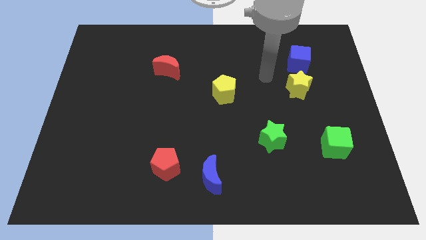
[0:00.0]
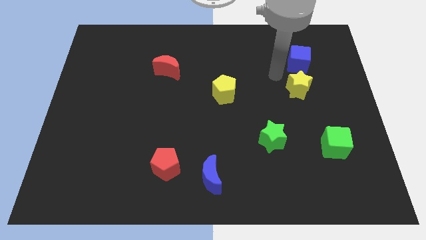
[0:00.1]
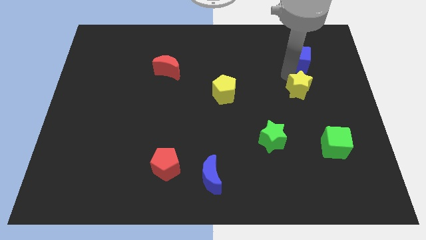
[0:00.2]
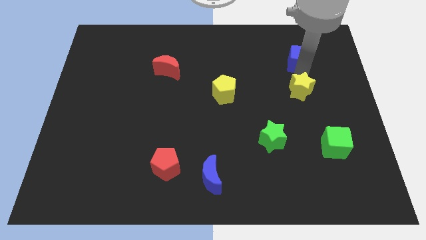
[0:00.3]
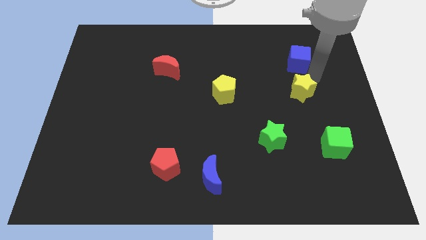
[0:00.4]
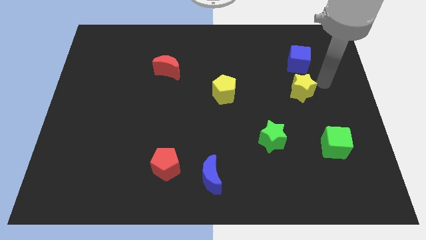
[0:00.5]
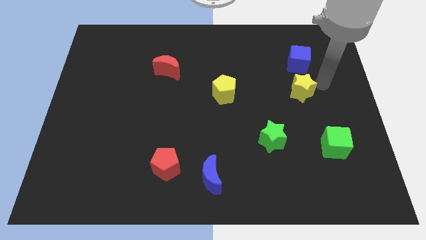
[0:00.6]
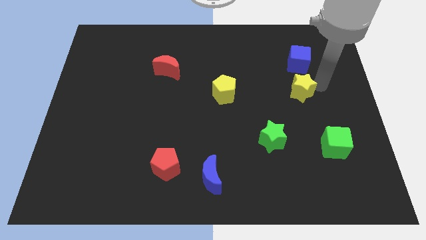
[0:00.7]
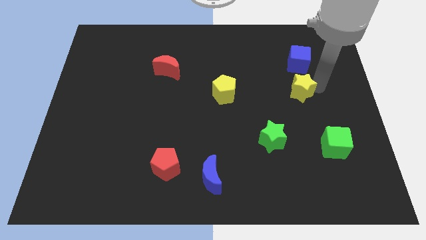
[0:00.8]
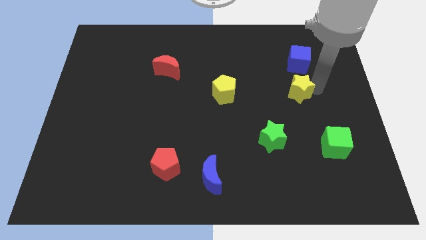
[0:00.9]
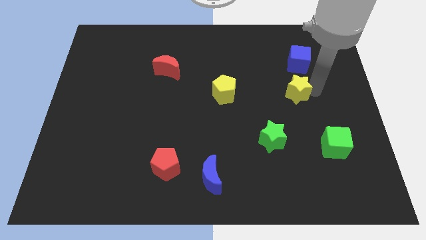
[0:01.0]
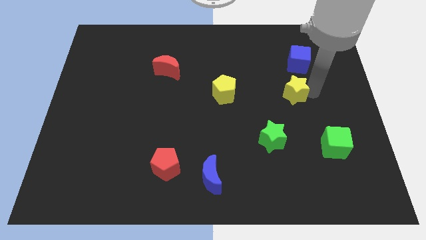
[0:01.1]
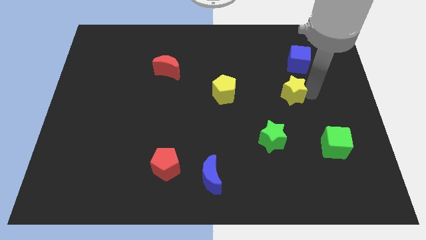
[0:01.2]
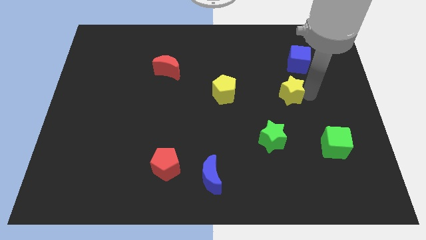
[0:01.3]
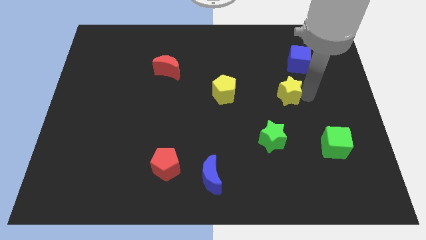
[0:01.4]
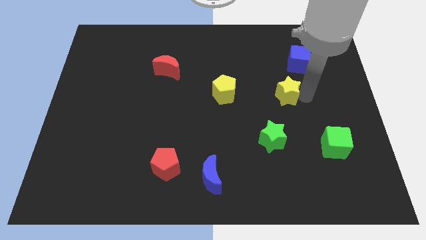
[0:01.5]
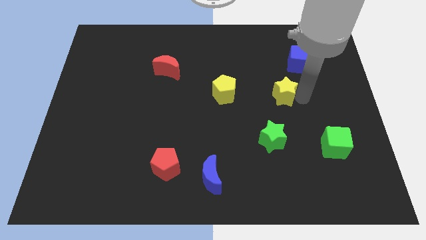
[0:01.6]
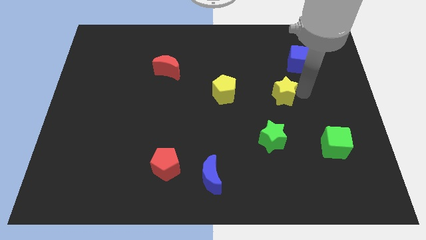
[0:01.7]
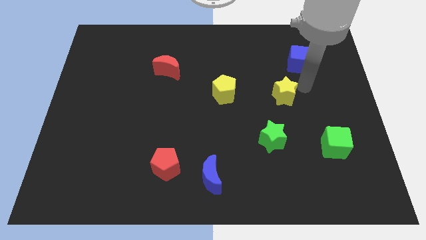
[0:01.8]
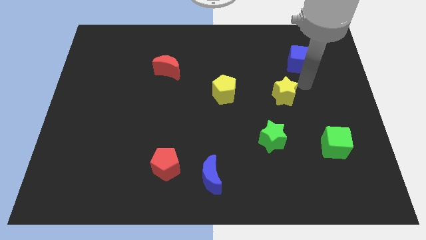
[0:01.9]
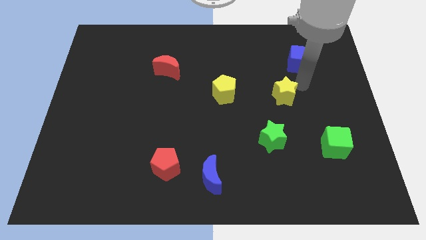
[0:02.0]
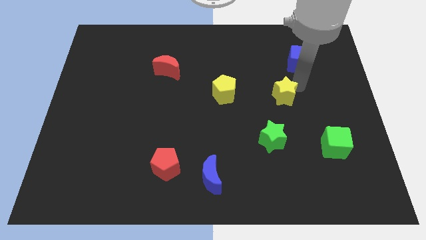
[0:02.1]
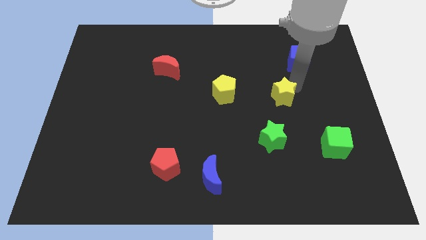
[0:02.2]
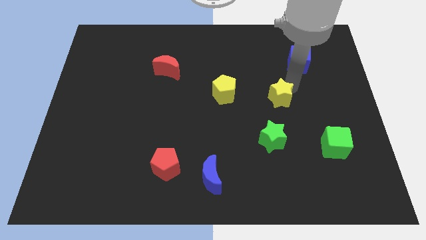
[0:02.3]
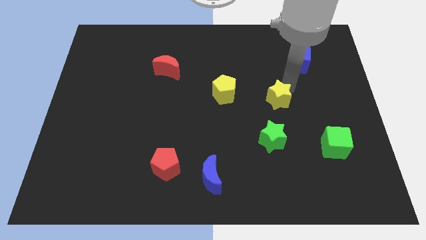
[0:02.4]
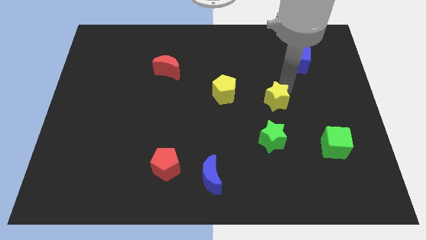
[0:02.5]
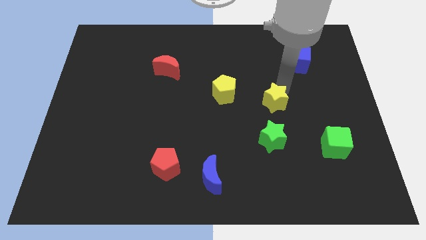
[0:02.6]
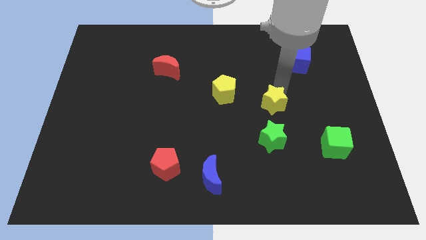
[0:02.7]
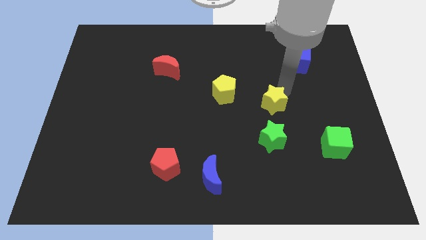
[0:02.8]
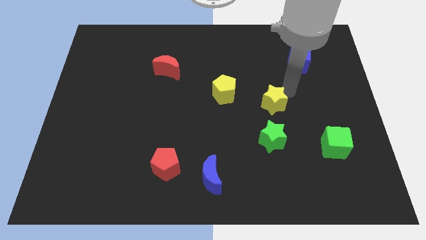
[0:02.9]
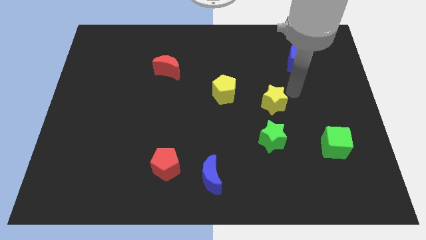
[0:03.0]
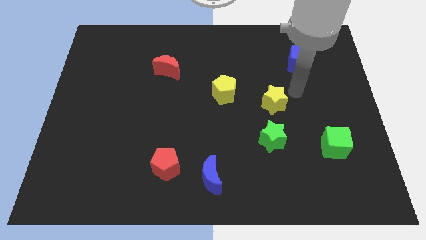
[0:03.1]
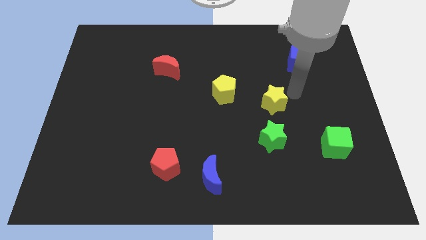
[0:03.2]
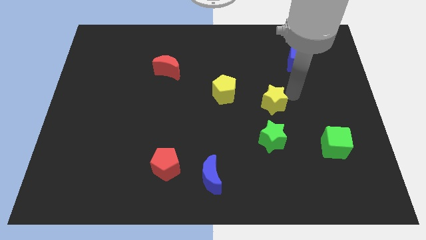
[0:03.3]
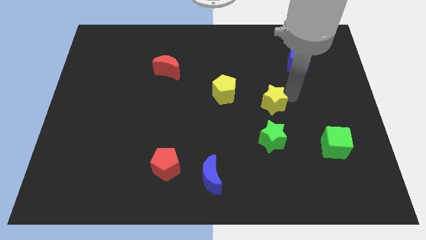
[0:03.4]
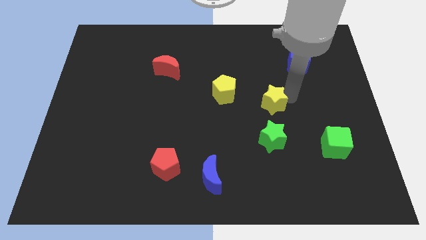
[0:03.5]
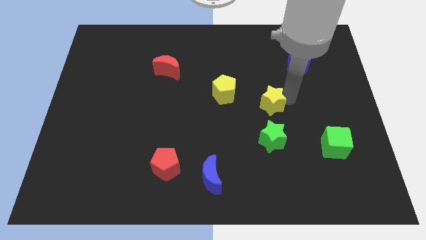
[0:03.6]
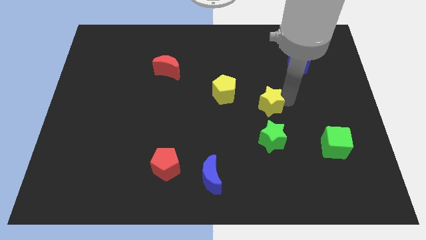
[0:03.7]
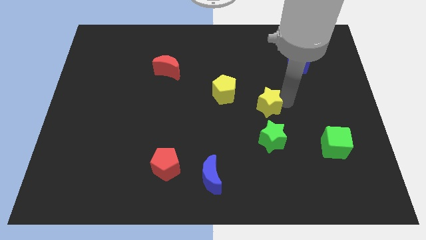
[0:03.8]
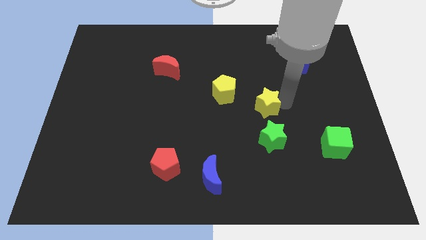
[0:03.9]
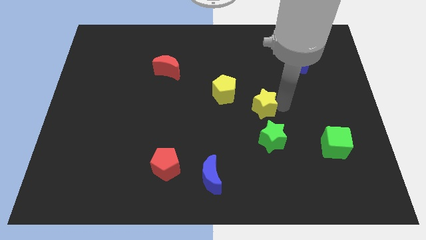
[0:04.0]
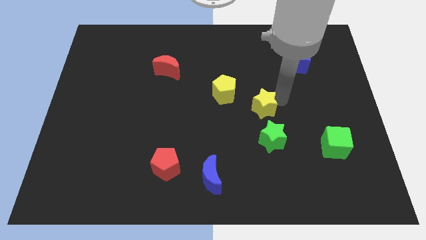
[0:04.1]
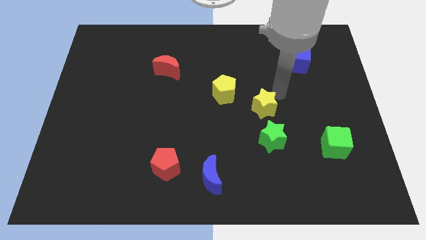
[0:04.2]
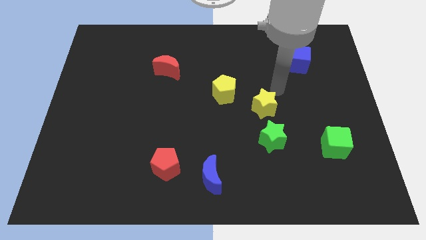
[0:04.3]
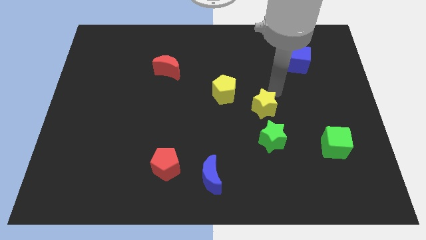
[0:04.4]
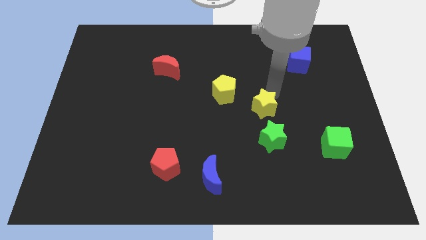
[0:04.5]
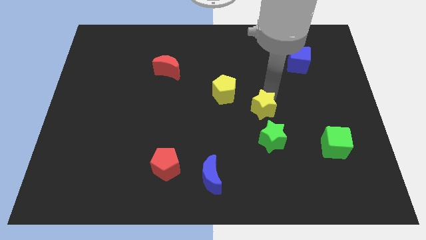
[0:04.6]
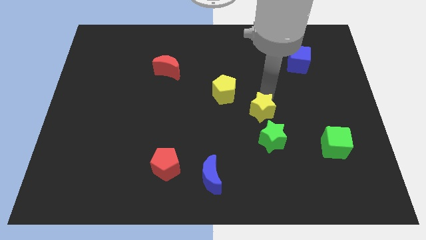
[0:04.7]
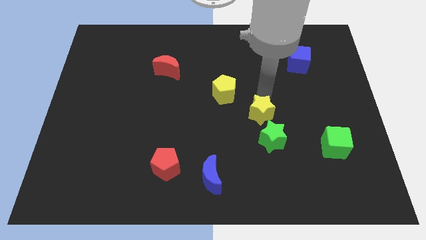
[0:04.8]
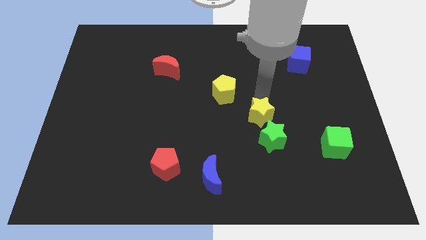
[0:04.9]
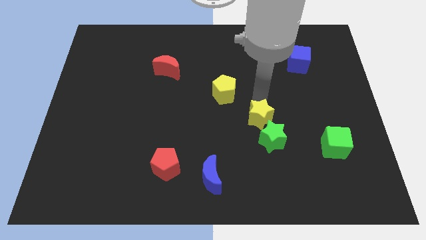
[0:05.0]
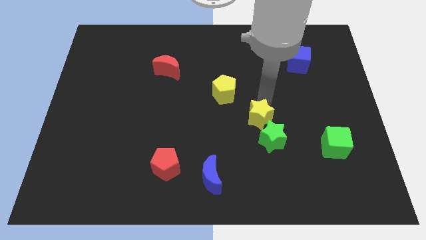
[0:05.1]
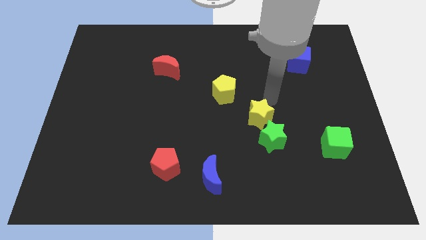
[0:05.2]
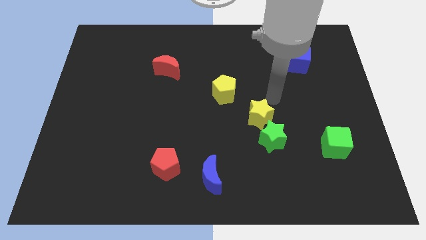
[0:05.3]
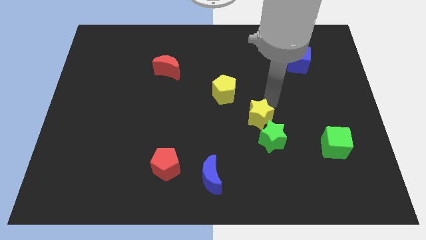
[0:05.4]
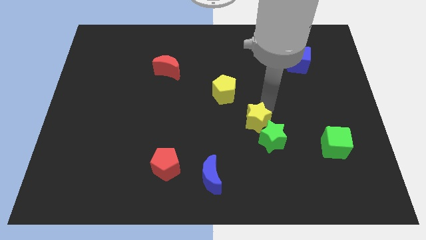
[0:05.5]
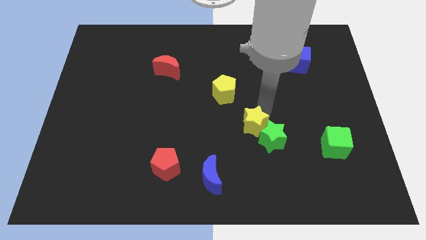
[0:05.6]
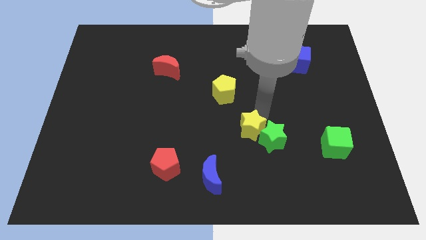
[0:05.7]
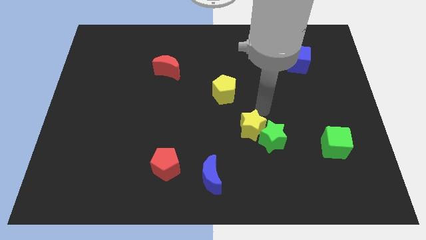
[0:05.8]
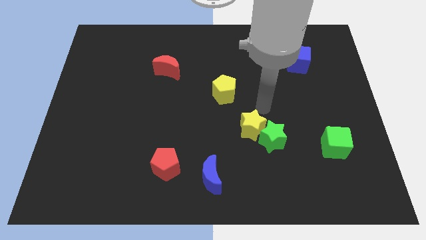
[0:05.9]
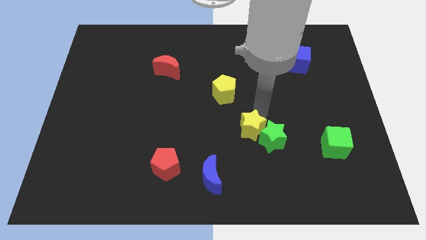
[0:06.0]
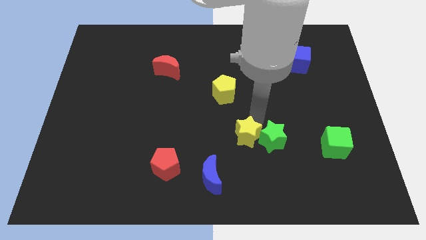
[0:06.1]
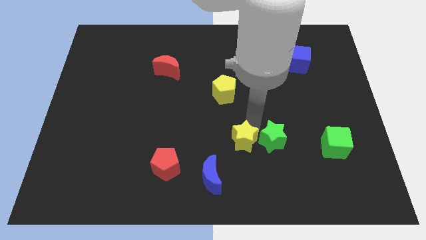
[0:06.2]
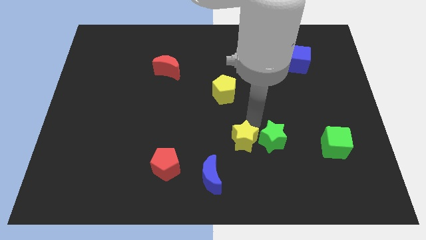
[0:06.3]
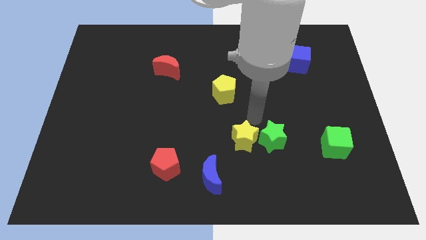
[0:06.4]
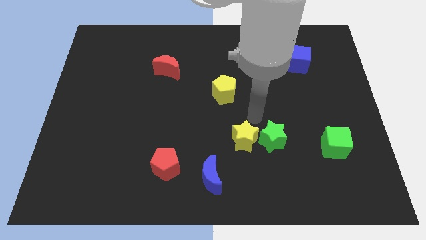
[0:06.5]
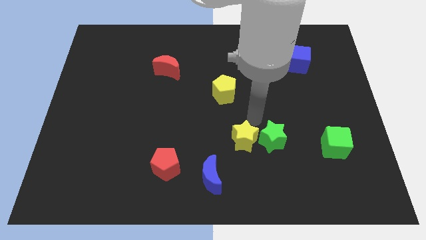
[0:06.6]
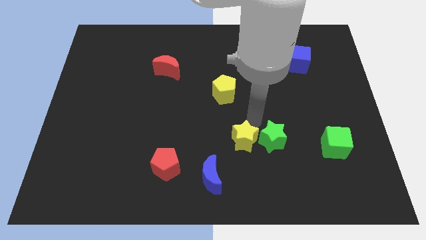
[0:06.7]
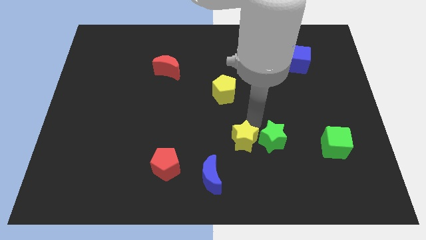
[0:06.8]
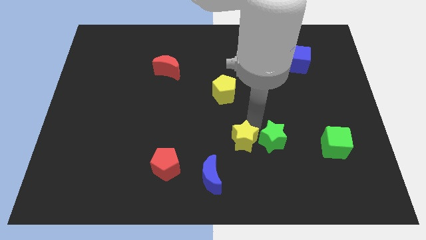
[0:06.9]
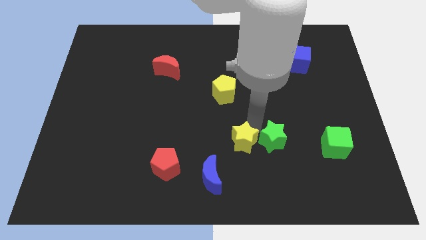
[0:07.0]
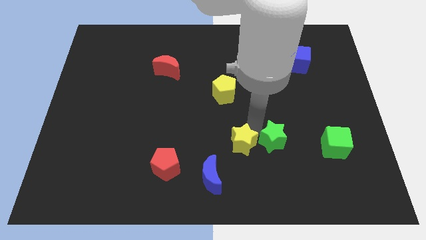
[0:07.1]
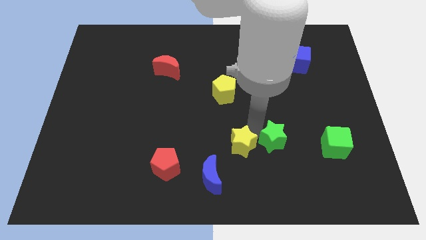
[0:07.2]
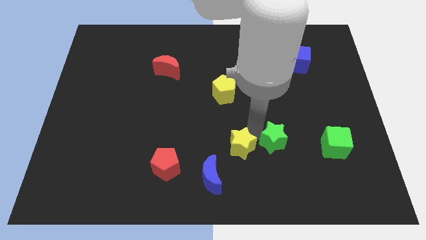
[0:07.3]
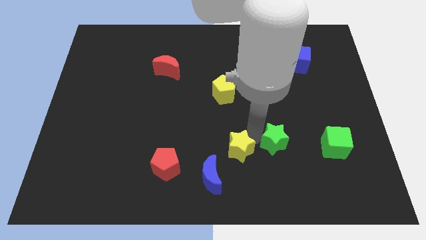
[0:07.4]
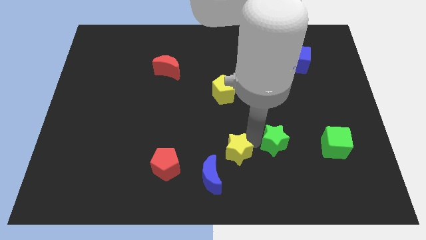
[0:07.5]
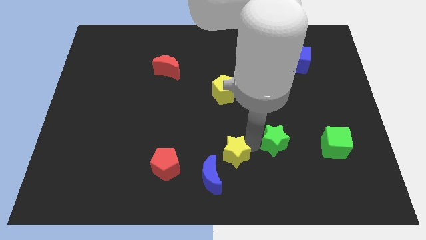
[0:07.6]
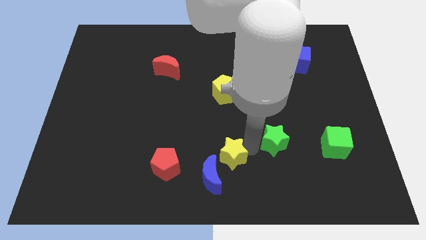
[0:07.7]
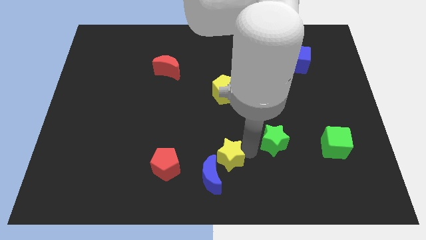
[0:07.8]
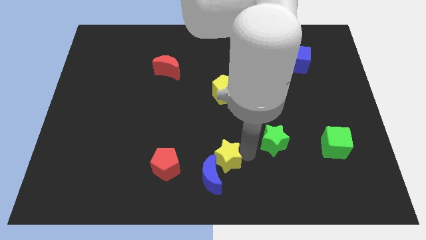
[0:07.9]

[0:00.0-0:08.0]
slide the yellow star towards the blue moon
